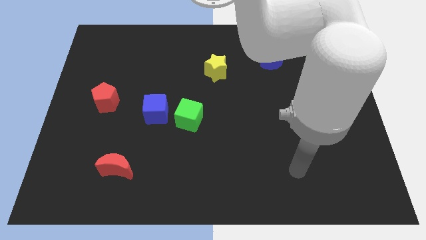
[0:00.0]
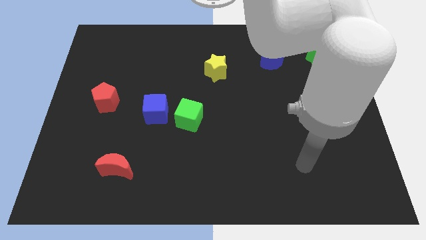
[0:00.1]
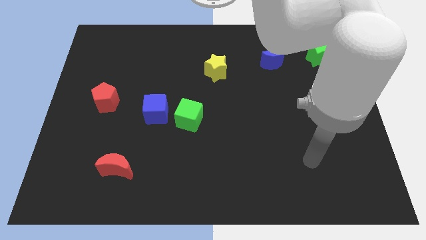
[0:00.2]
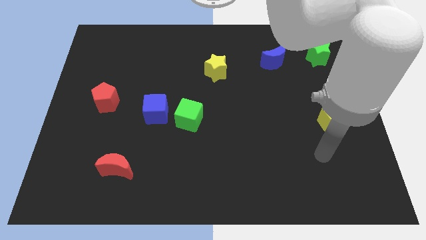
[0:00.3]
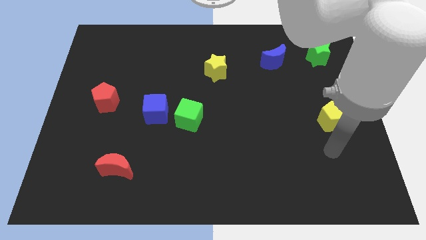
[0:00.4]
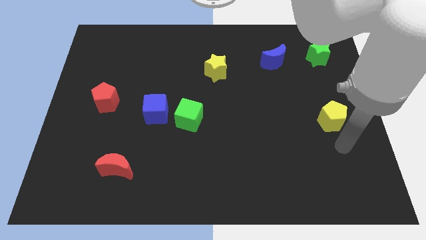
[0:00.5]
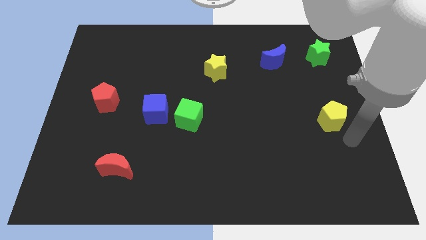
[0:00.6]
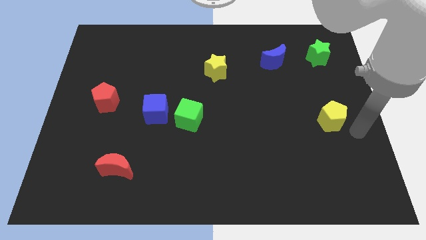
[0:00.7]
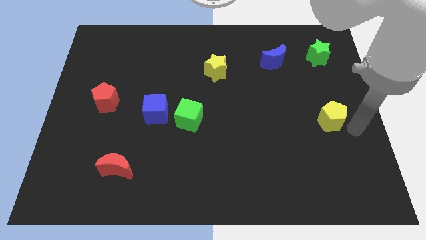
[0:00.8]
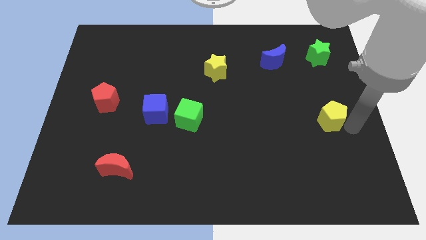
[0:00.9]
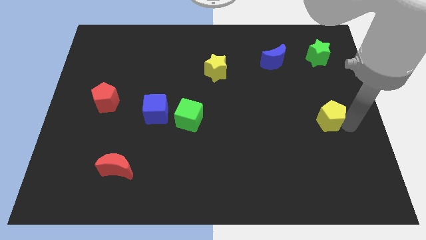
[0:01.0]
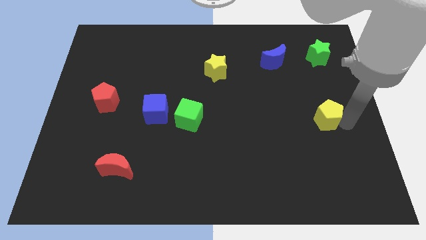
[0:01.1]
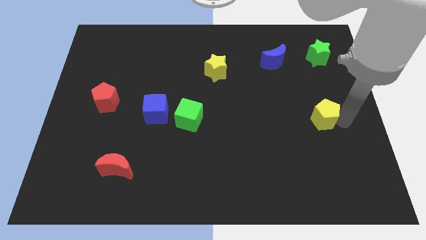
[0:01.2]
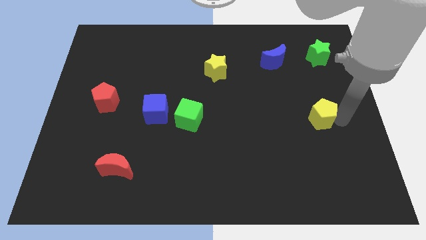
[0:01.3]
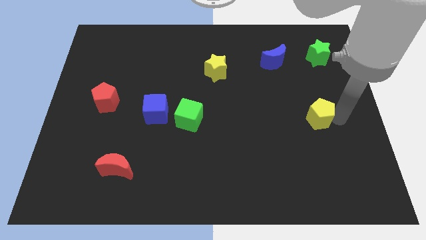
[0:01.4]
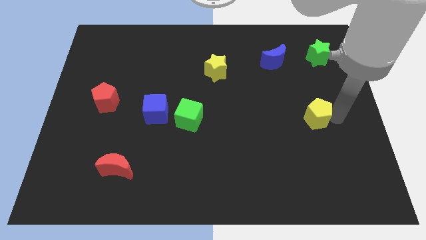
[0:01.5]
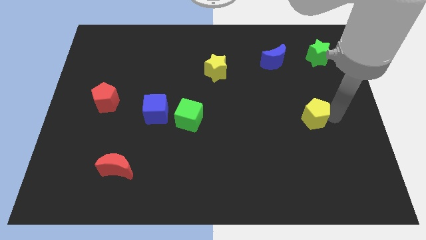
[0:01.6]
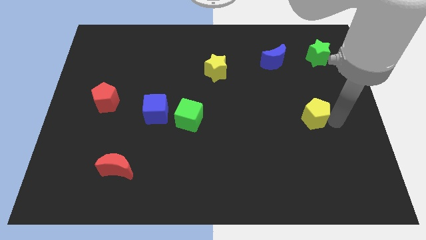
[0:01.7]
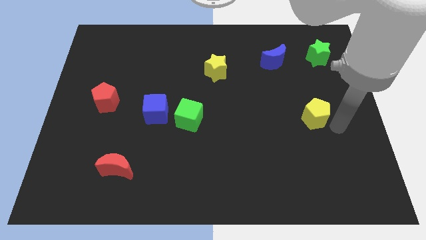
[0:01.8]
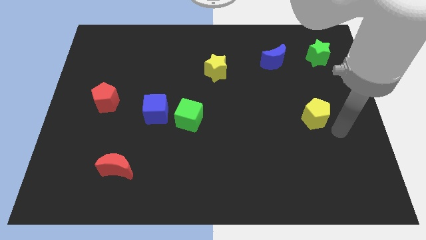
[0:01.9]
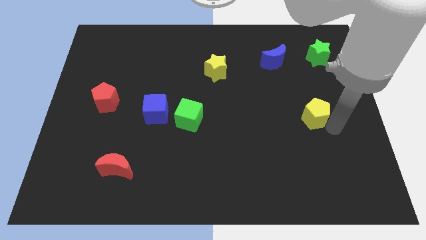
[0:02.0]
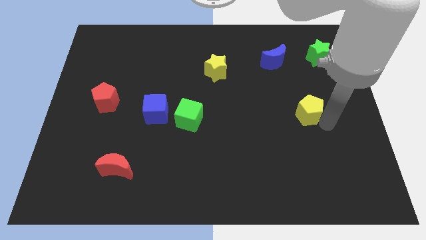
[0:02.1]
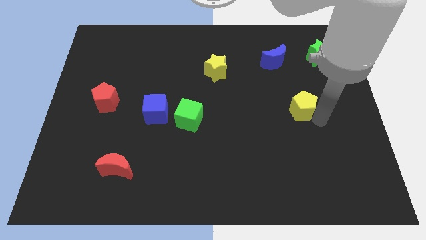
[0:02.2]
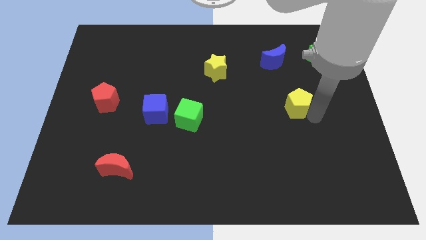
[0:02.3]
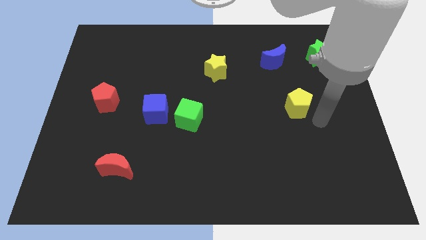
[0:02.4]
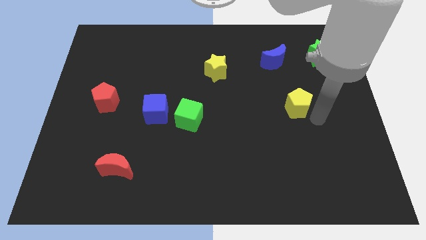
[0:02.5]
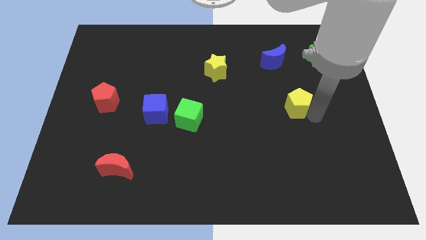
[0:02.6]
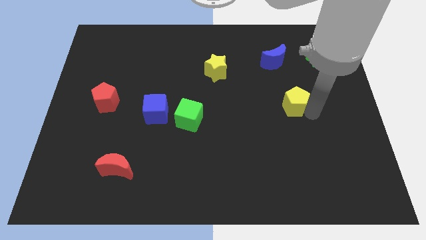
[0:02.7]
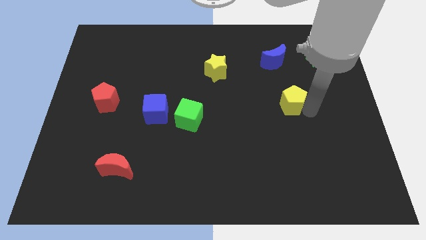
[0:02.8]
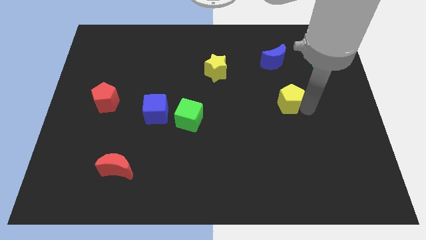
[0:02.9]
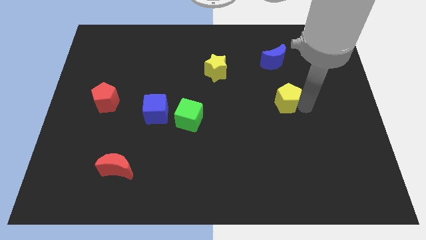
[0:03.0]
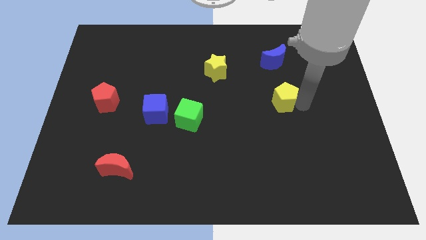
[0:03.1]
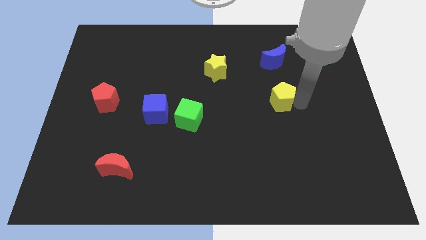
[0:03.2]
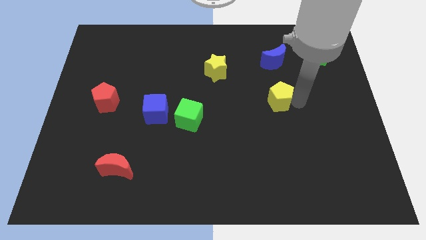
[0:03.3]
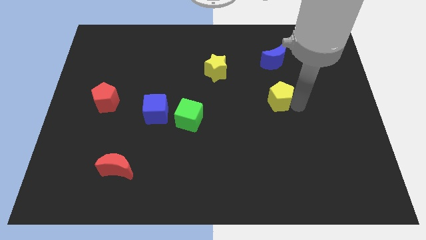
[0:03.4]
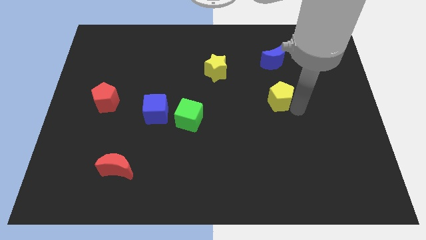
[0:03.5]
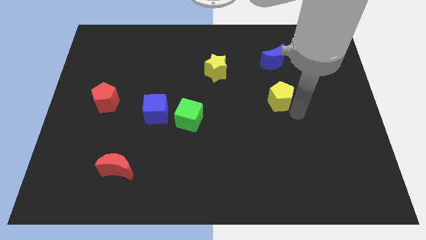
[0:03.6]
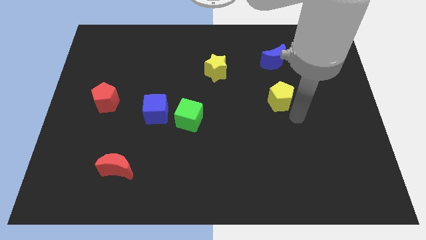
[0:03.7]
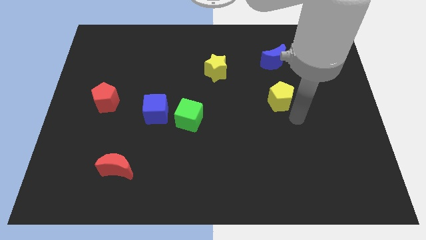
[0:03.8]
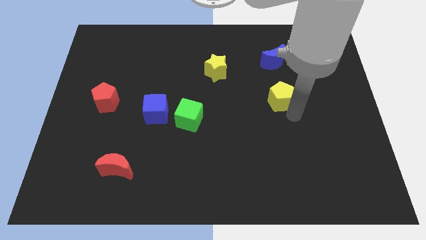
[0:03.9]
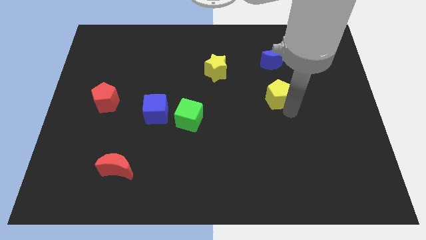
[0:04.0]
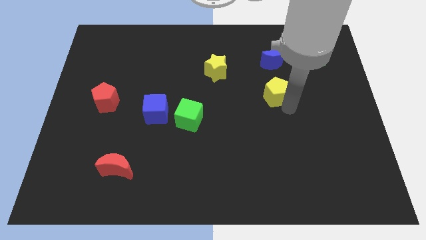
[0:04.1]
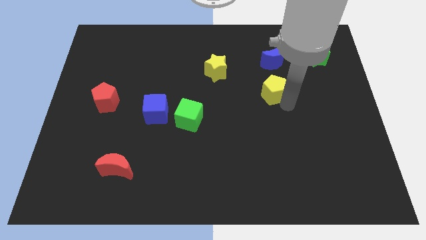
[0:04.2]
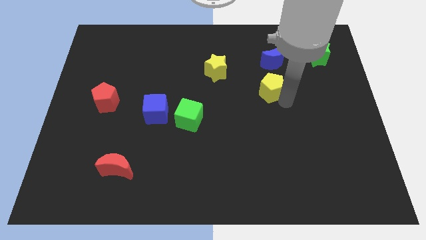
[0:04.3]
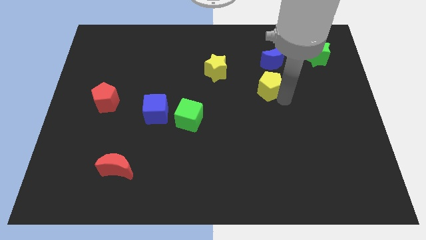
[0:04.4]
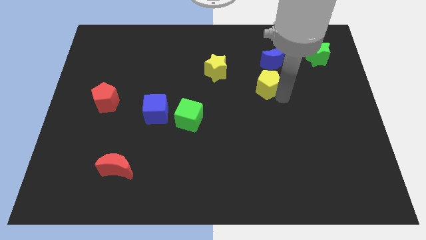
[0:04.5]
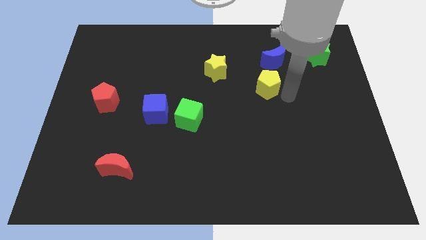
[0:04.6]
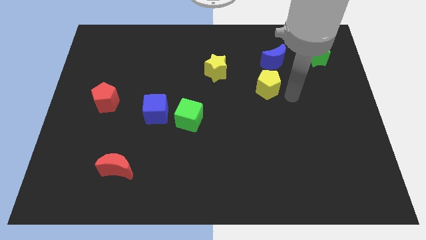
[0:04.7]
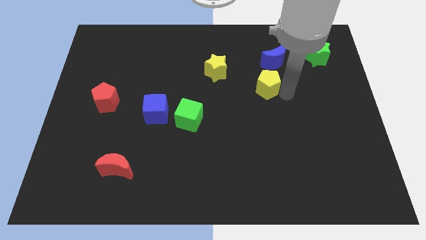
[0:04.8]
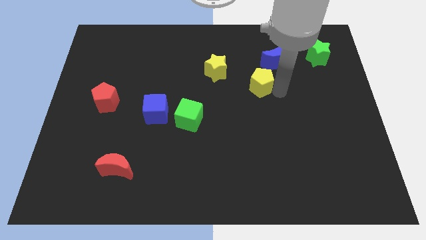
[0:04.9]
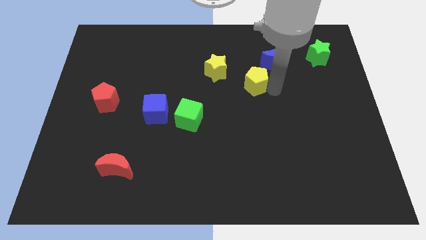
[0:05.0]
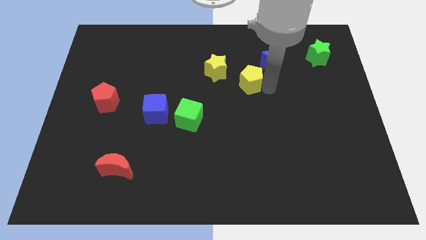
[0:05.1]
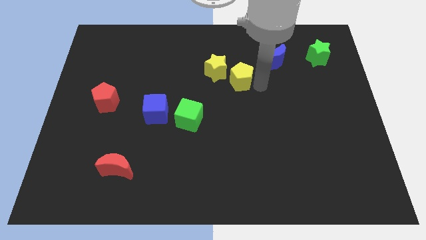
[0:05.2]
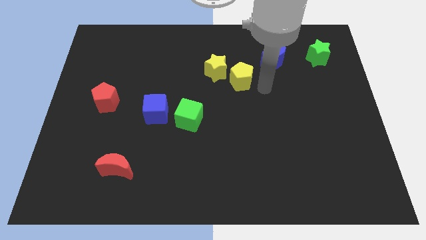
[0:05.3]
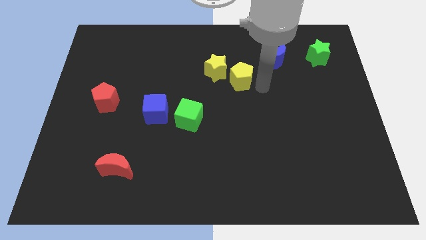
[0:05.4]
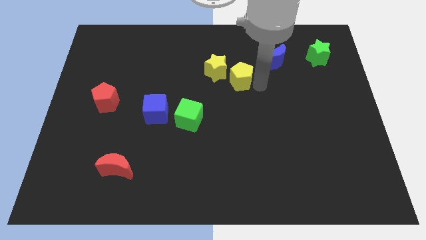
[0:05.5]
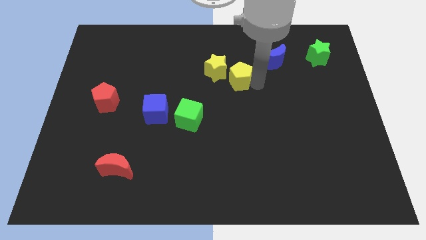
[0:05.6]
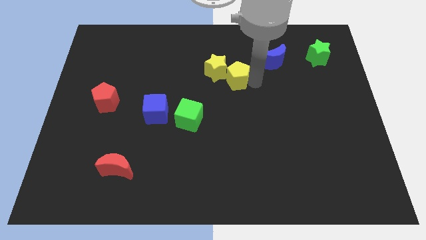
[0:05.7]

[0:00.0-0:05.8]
move the yellow pentagon to the yellow star

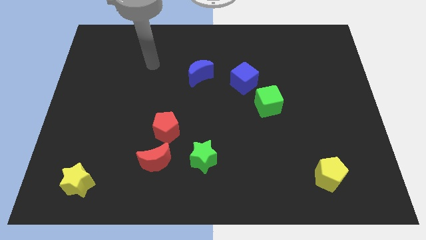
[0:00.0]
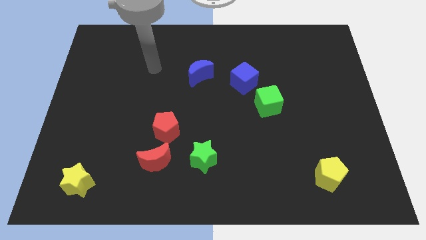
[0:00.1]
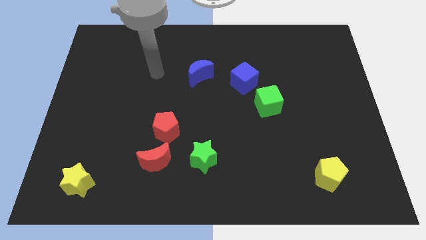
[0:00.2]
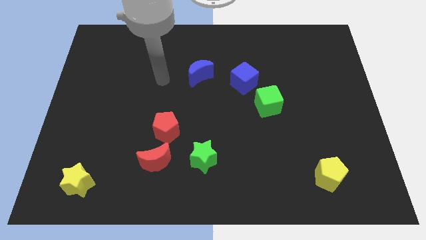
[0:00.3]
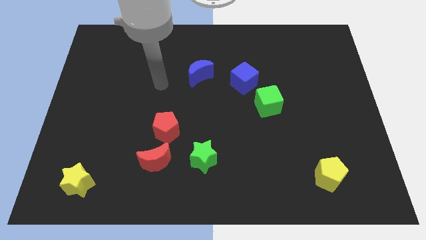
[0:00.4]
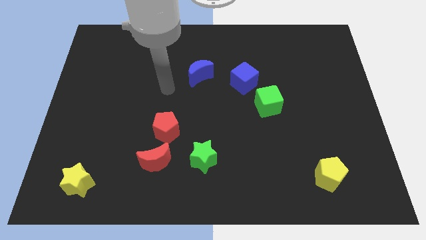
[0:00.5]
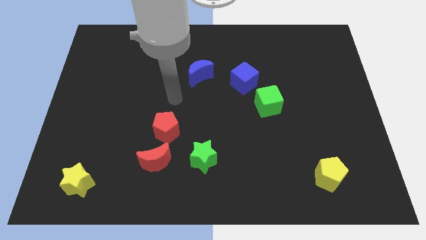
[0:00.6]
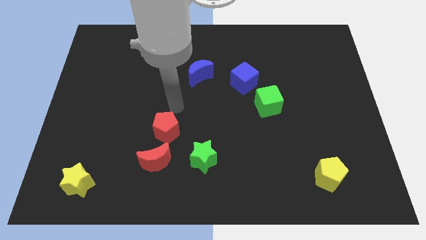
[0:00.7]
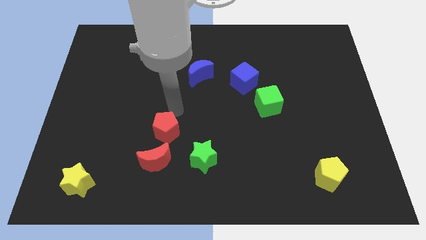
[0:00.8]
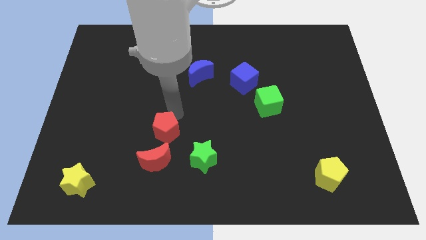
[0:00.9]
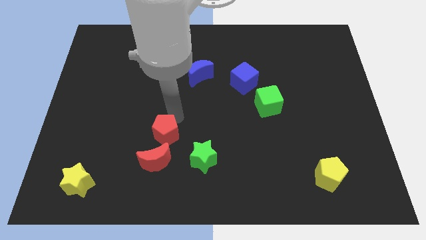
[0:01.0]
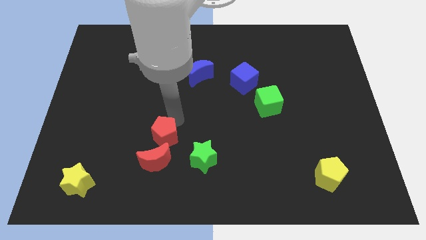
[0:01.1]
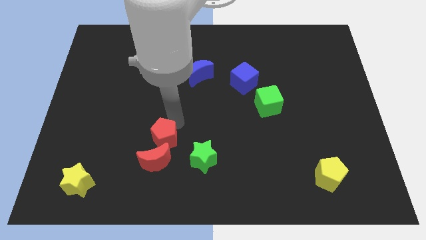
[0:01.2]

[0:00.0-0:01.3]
move the red pentagon next to the red moon
